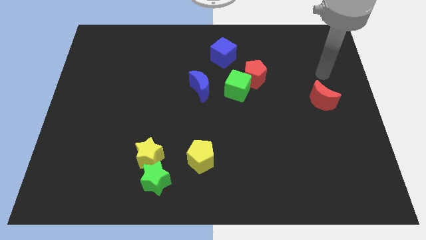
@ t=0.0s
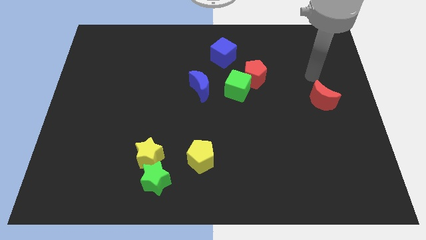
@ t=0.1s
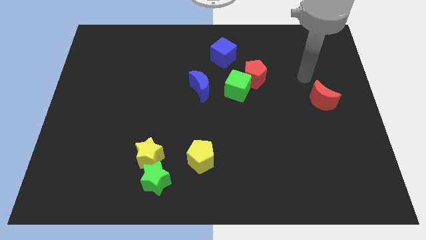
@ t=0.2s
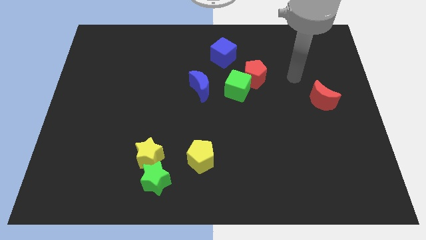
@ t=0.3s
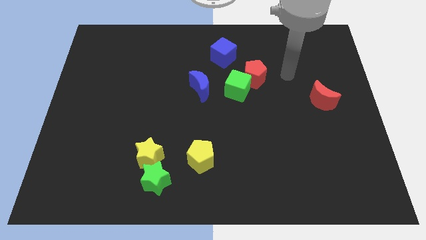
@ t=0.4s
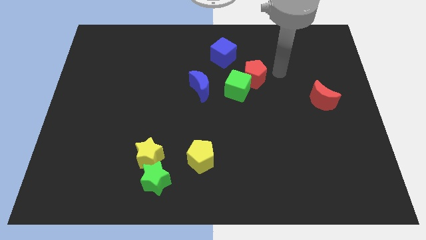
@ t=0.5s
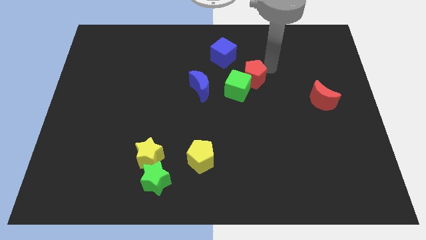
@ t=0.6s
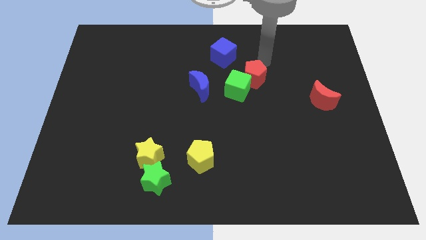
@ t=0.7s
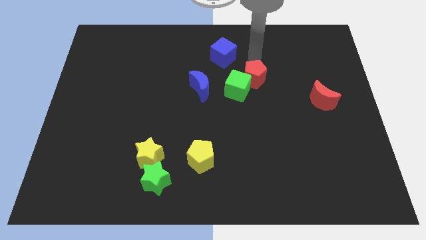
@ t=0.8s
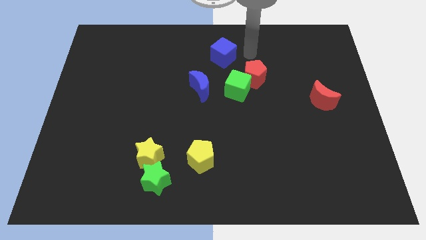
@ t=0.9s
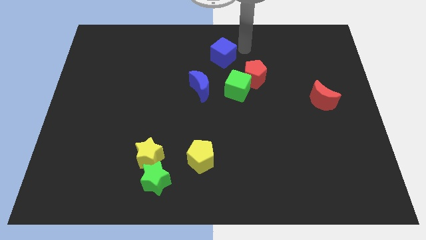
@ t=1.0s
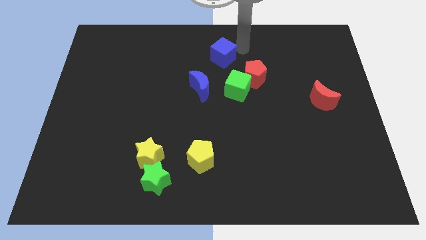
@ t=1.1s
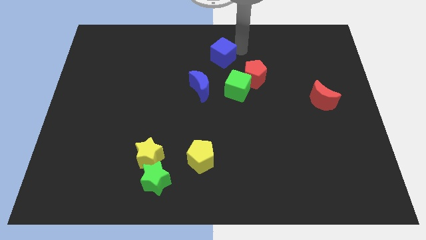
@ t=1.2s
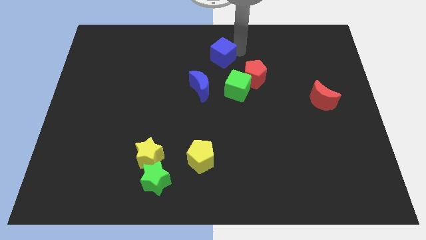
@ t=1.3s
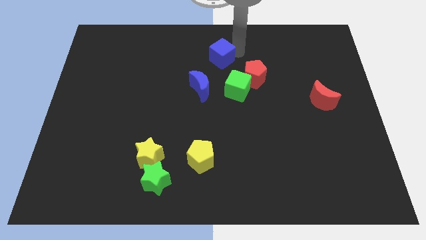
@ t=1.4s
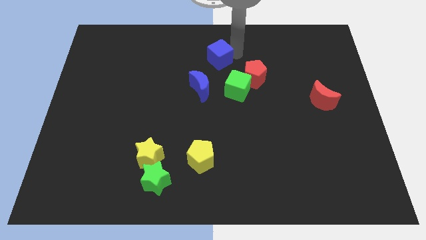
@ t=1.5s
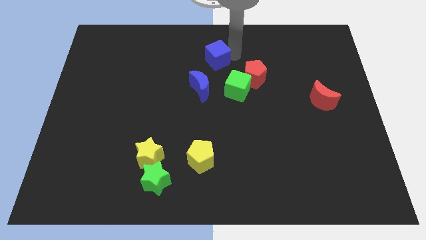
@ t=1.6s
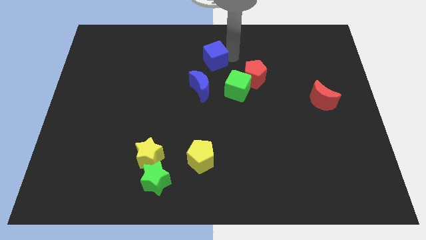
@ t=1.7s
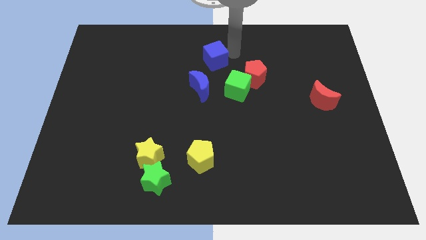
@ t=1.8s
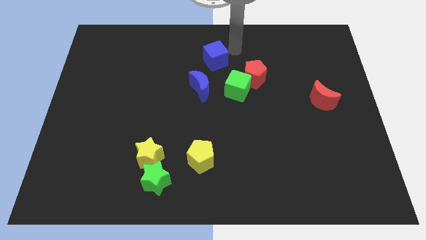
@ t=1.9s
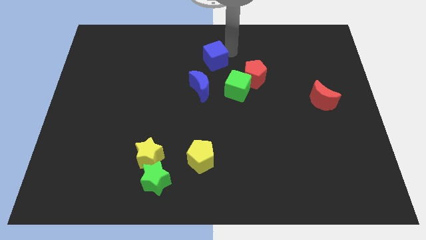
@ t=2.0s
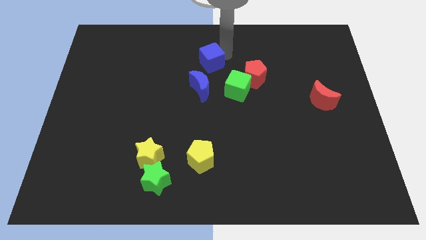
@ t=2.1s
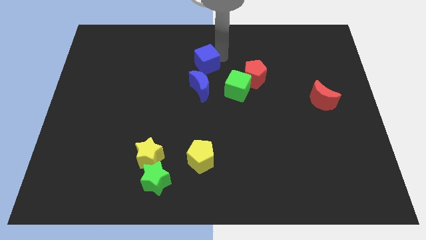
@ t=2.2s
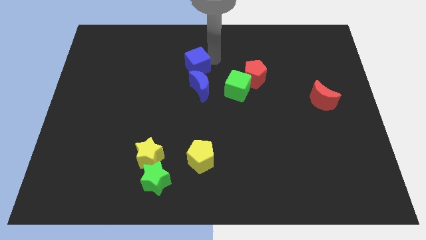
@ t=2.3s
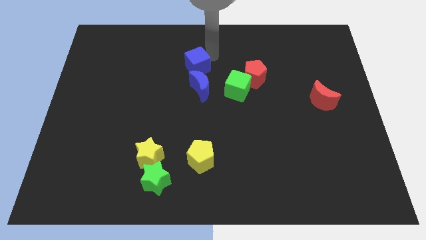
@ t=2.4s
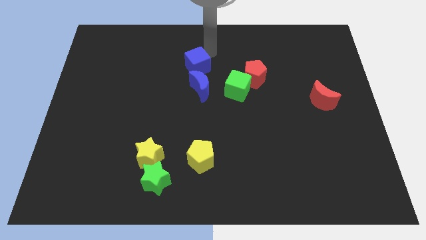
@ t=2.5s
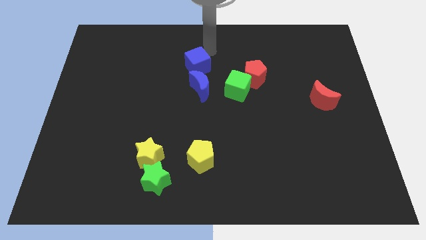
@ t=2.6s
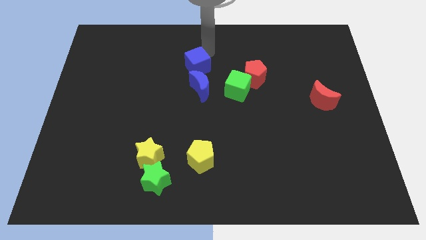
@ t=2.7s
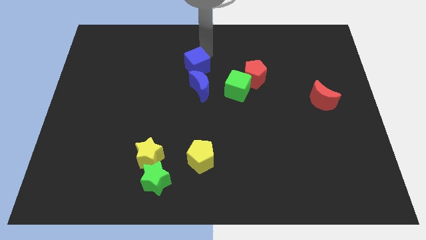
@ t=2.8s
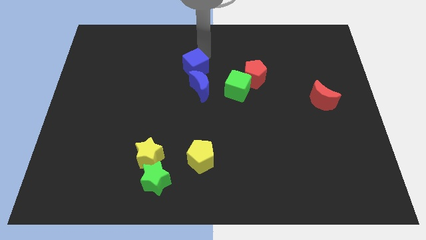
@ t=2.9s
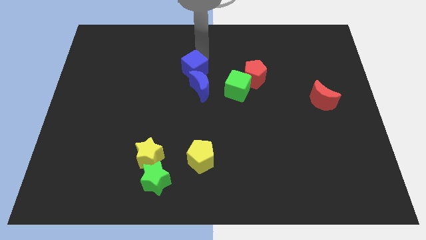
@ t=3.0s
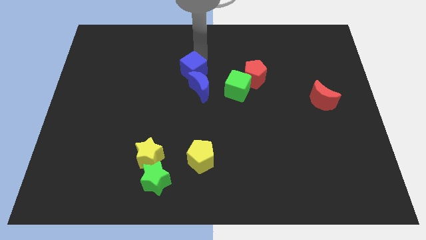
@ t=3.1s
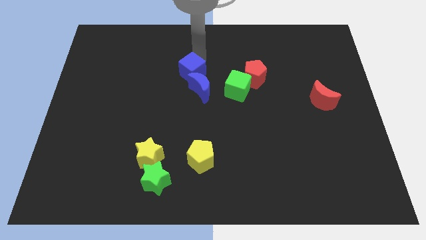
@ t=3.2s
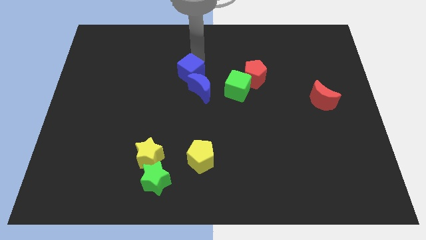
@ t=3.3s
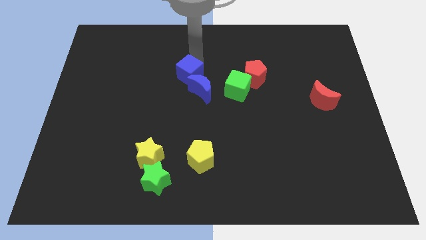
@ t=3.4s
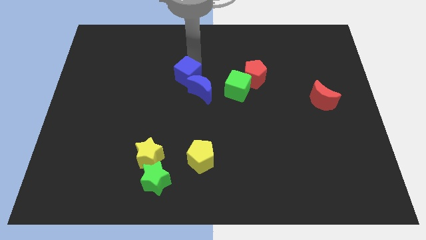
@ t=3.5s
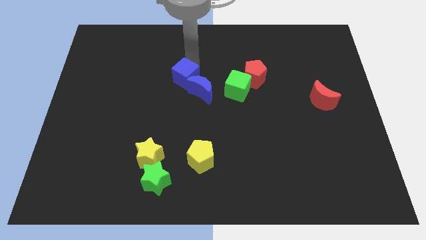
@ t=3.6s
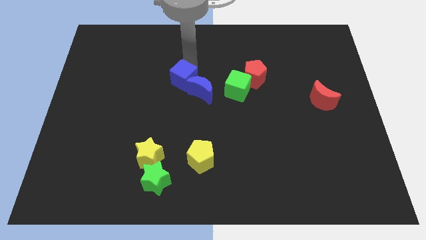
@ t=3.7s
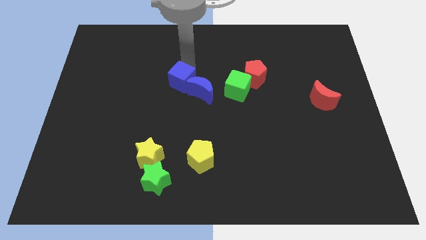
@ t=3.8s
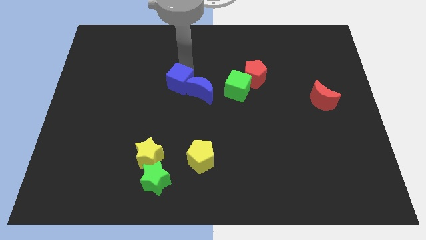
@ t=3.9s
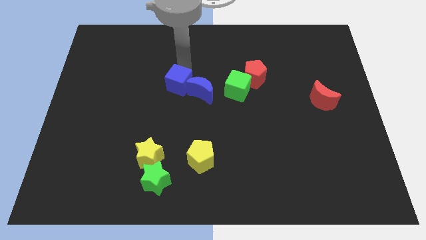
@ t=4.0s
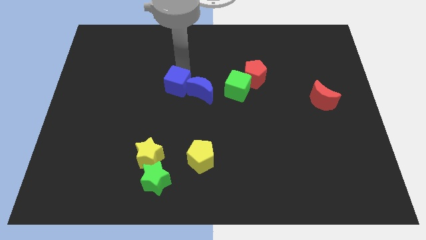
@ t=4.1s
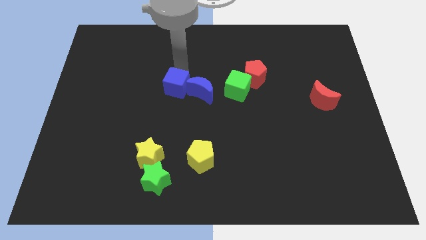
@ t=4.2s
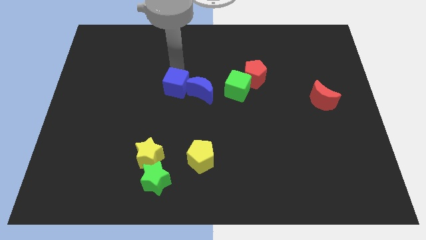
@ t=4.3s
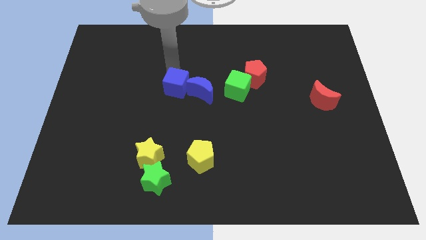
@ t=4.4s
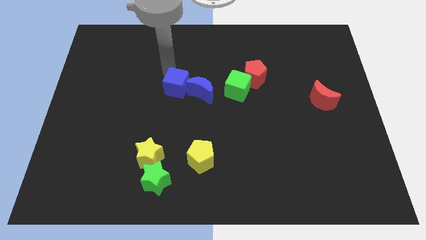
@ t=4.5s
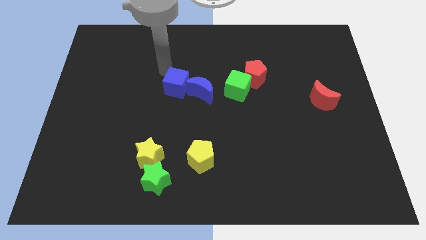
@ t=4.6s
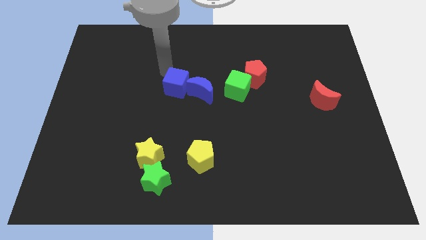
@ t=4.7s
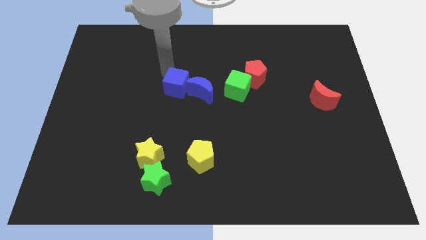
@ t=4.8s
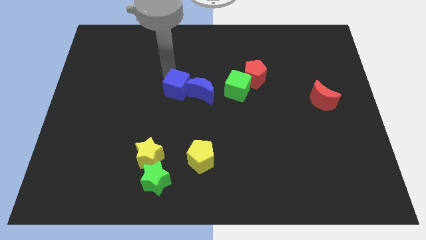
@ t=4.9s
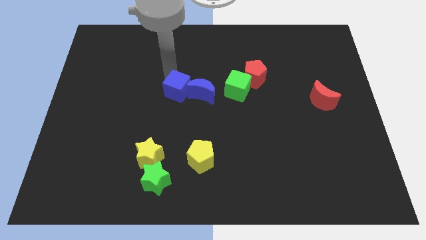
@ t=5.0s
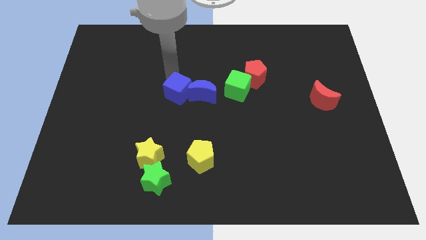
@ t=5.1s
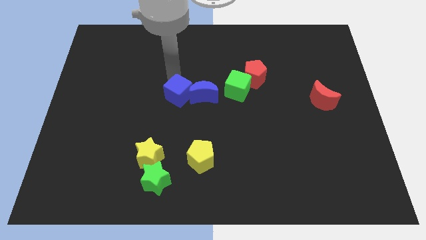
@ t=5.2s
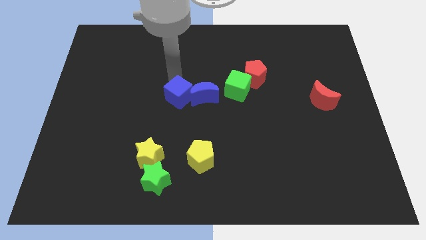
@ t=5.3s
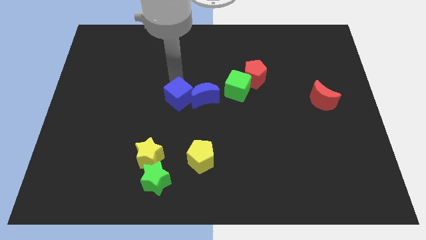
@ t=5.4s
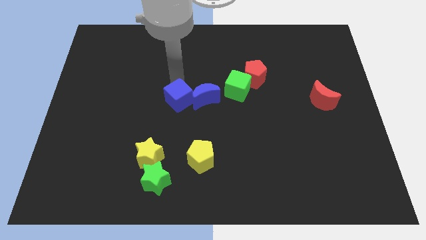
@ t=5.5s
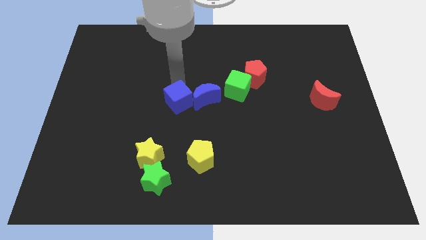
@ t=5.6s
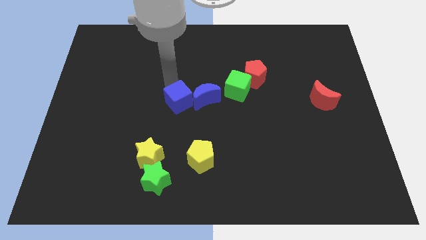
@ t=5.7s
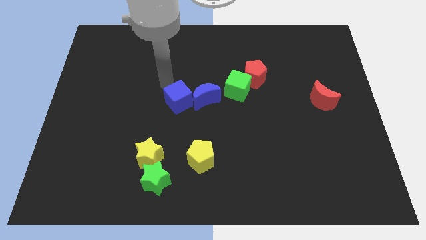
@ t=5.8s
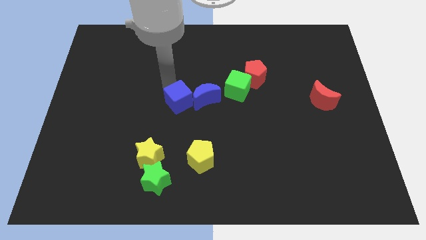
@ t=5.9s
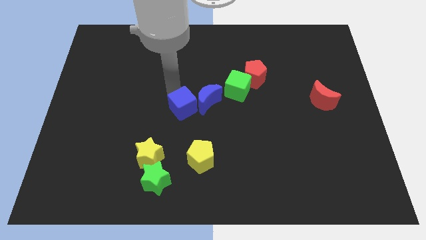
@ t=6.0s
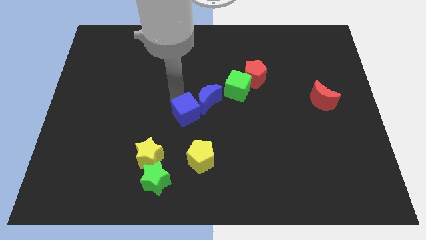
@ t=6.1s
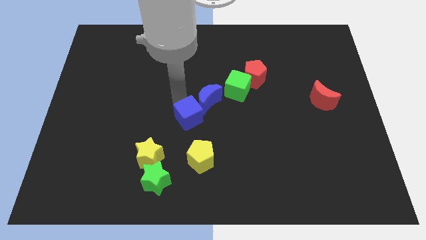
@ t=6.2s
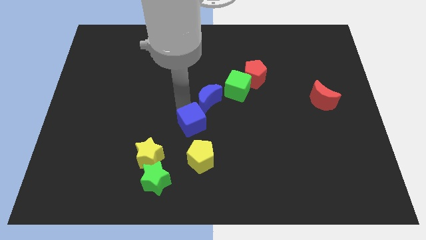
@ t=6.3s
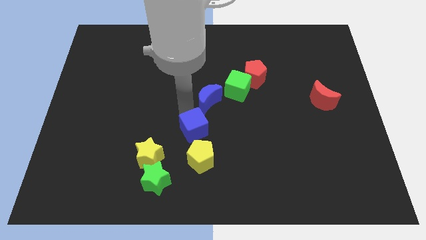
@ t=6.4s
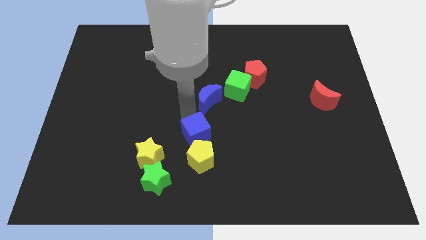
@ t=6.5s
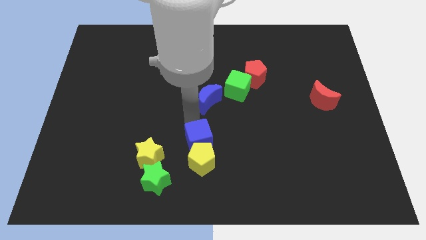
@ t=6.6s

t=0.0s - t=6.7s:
move the blue cube towards the yellow pentagon

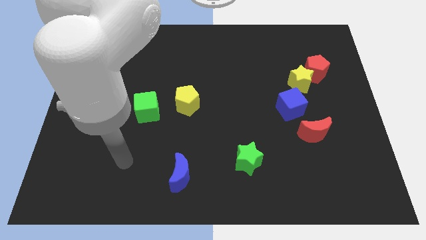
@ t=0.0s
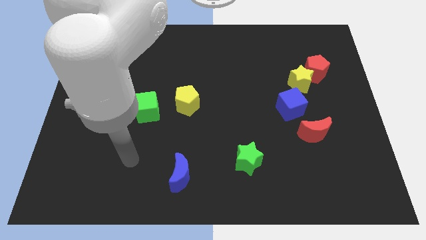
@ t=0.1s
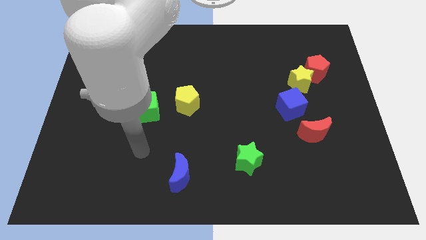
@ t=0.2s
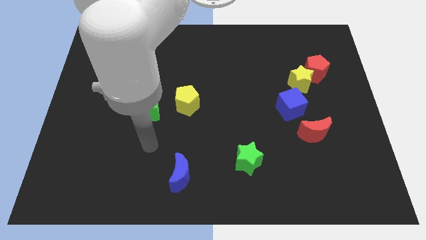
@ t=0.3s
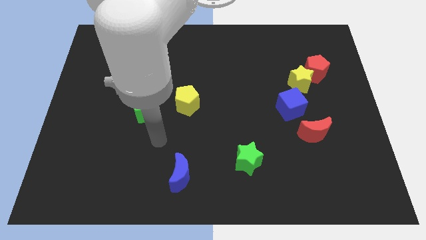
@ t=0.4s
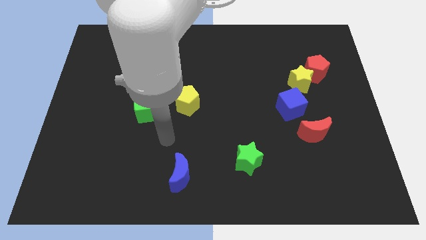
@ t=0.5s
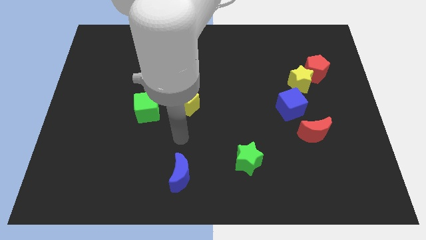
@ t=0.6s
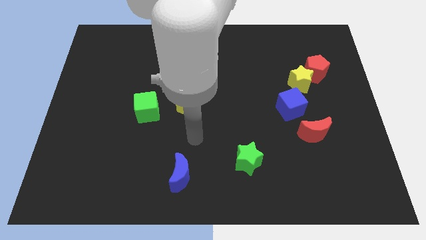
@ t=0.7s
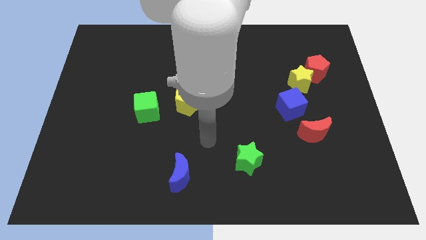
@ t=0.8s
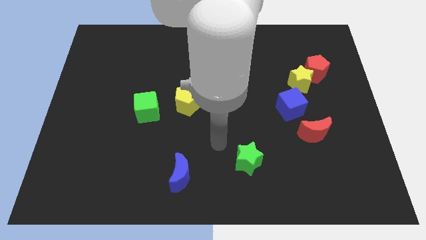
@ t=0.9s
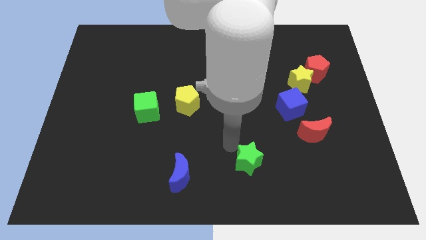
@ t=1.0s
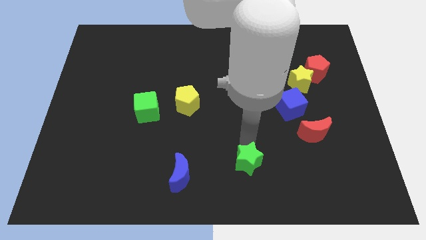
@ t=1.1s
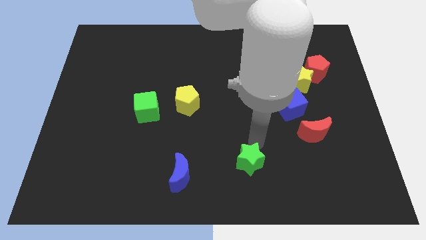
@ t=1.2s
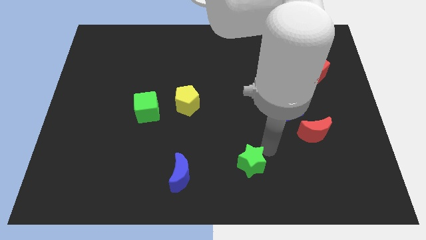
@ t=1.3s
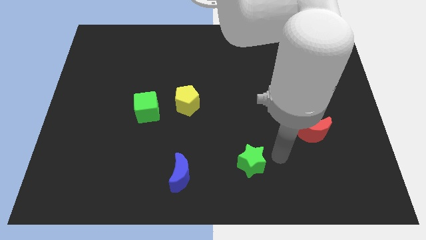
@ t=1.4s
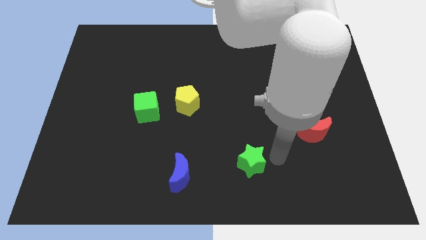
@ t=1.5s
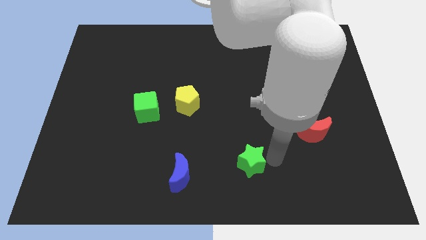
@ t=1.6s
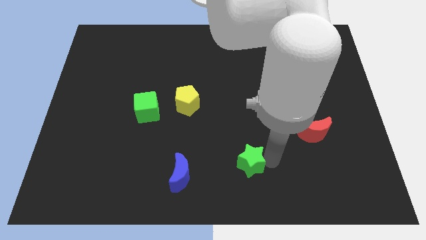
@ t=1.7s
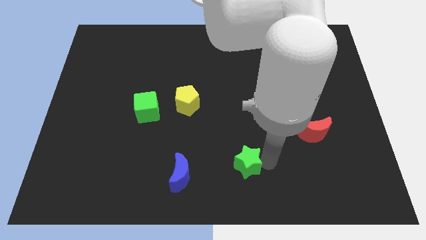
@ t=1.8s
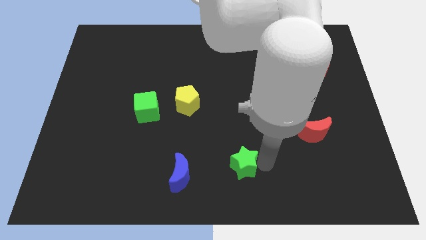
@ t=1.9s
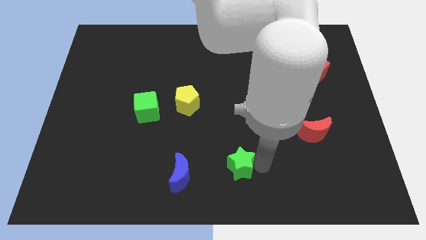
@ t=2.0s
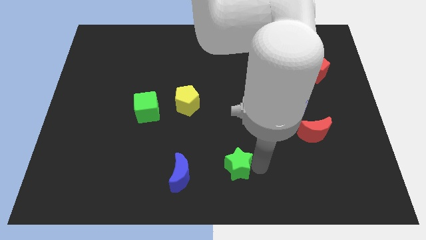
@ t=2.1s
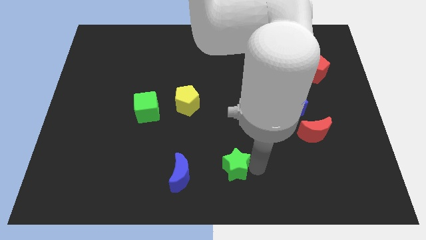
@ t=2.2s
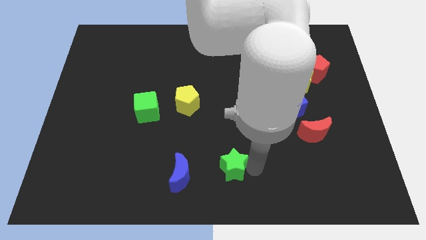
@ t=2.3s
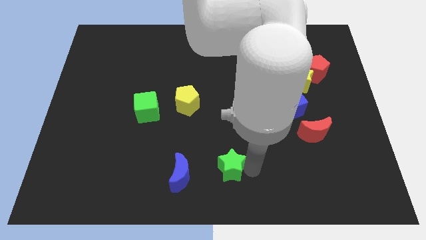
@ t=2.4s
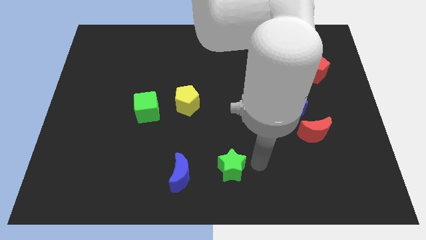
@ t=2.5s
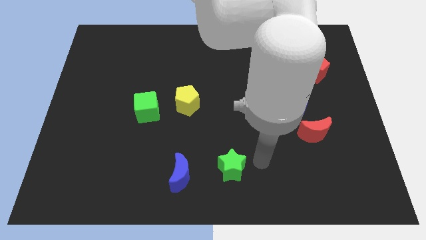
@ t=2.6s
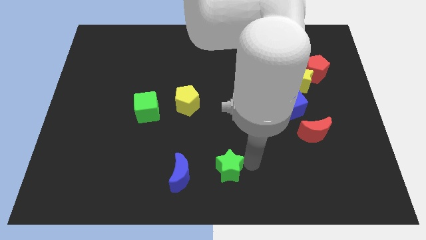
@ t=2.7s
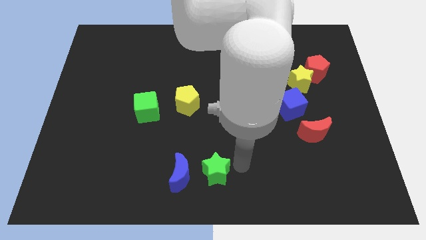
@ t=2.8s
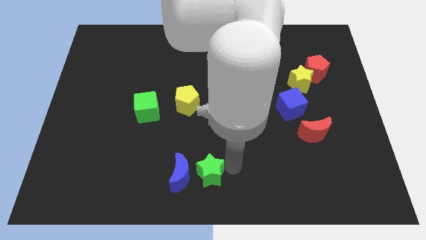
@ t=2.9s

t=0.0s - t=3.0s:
move the green star close to the blue moon
